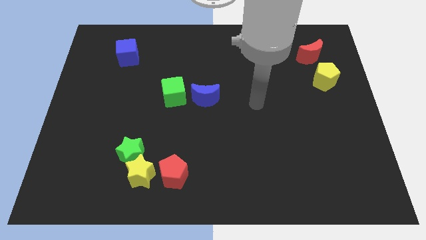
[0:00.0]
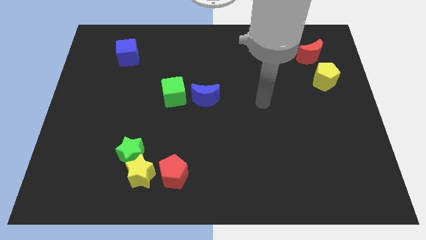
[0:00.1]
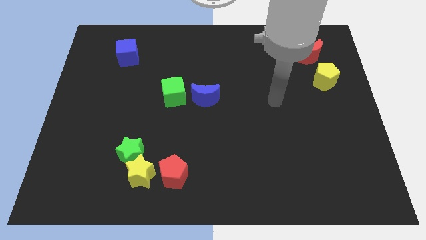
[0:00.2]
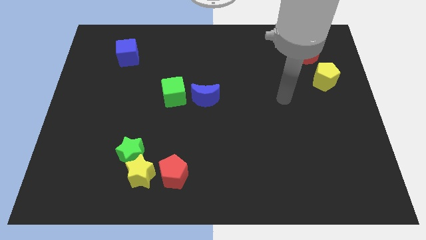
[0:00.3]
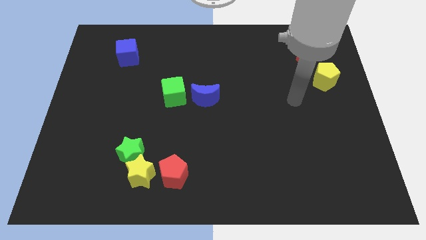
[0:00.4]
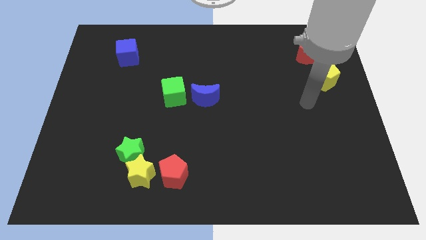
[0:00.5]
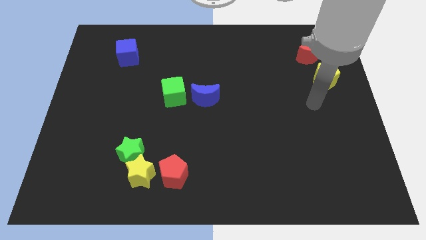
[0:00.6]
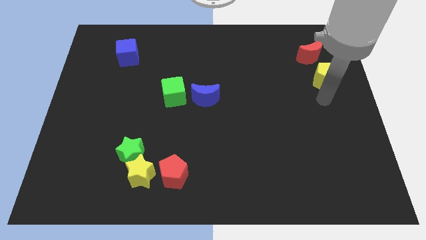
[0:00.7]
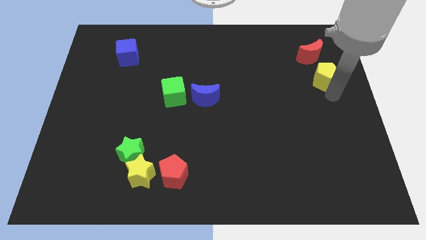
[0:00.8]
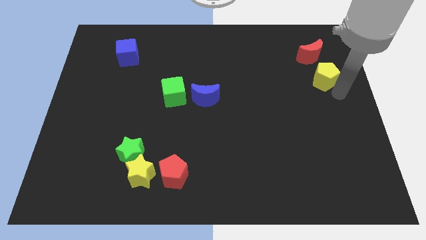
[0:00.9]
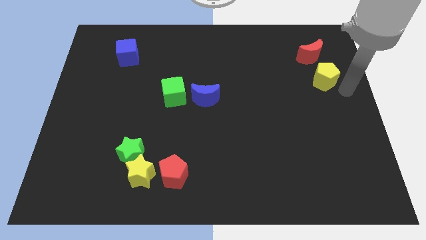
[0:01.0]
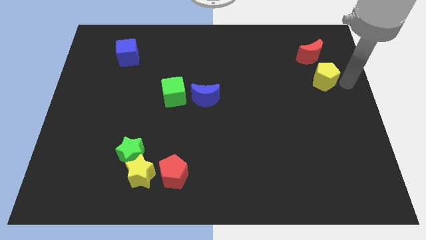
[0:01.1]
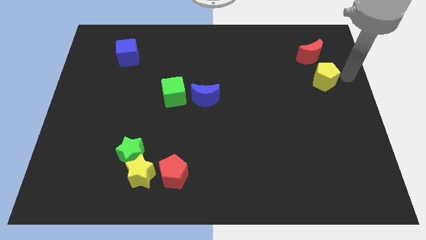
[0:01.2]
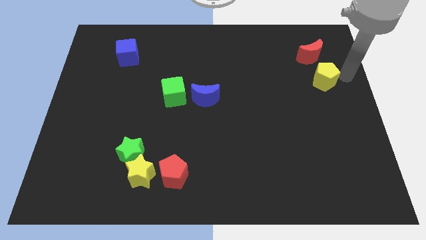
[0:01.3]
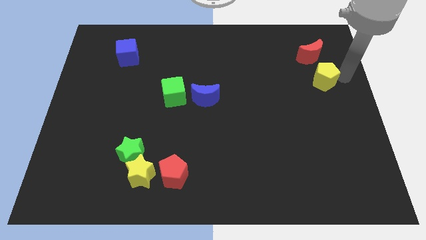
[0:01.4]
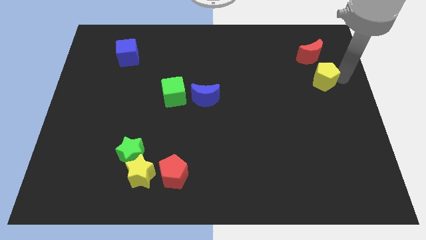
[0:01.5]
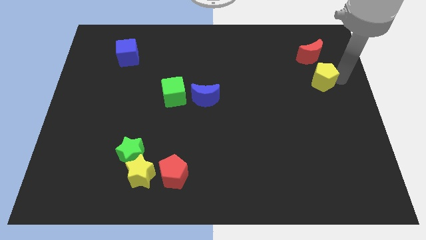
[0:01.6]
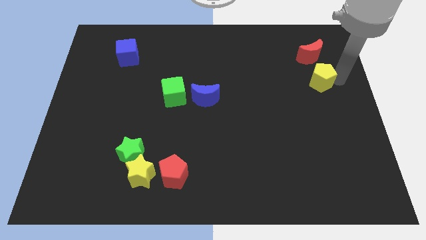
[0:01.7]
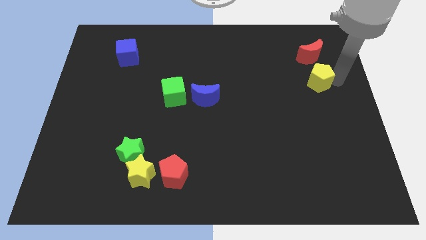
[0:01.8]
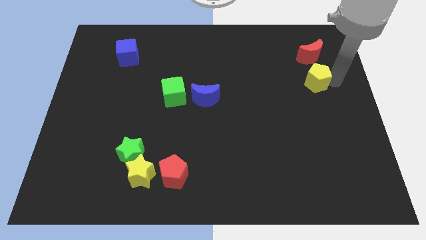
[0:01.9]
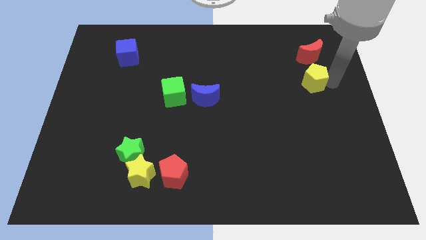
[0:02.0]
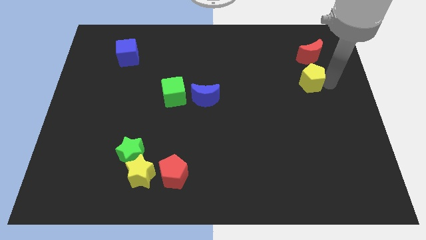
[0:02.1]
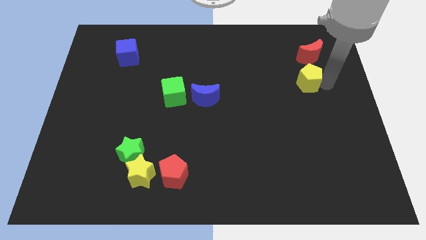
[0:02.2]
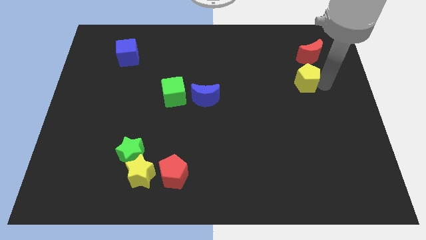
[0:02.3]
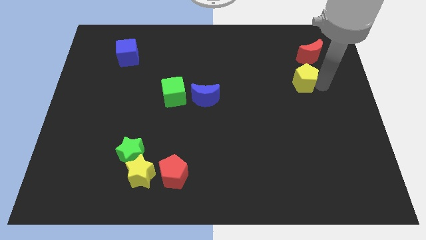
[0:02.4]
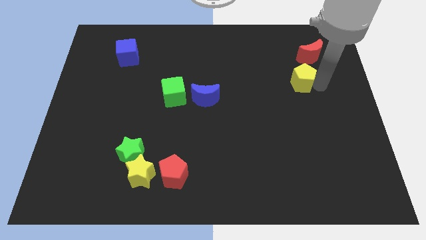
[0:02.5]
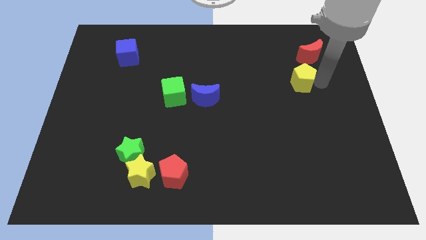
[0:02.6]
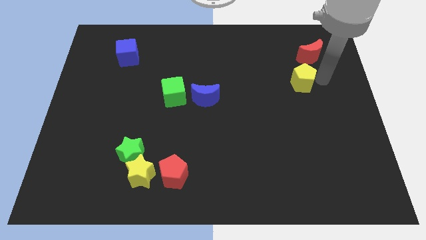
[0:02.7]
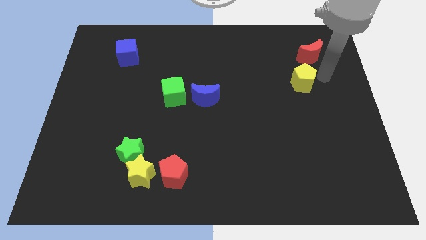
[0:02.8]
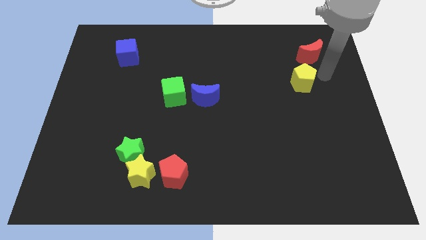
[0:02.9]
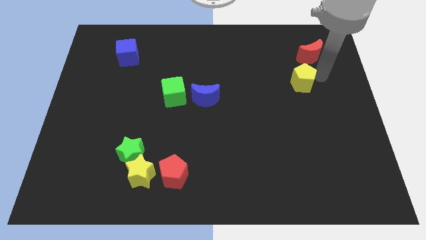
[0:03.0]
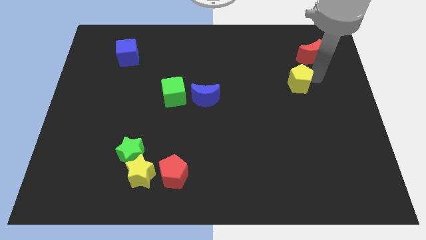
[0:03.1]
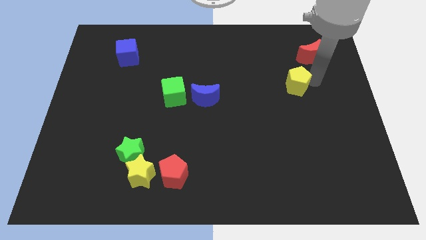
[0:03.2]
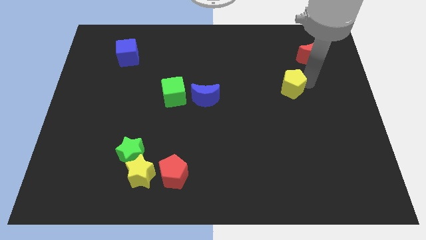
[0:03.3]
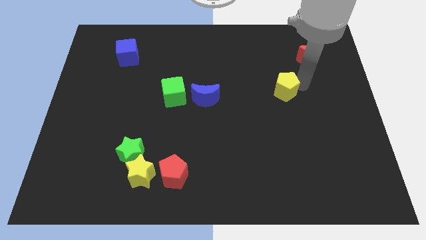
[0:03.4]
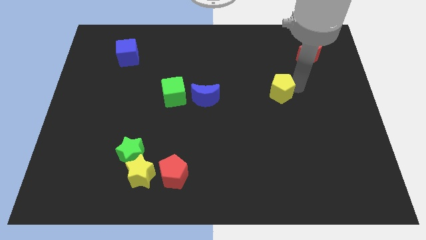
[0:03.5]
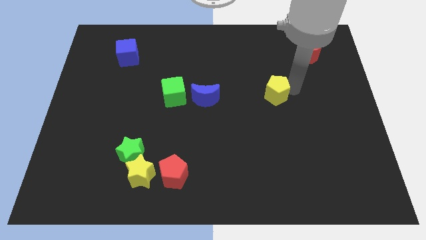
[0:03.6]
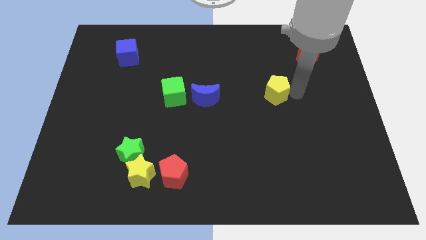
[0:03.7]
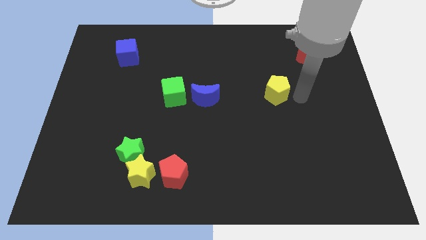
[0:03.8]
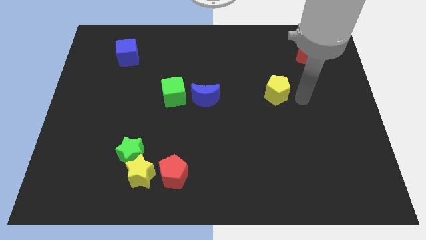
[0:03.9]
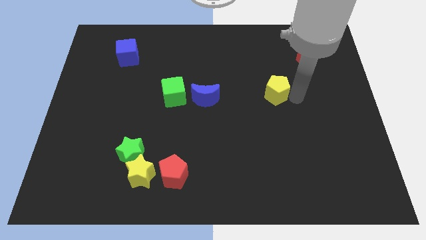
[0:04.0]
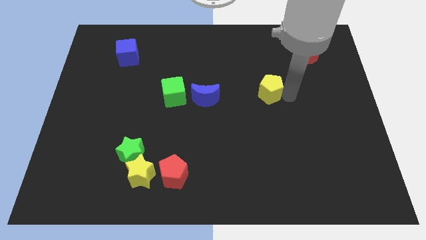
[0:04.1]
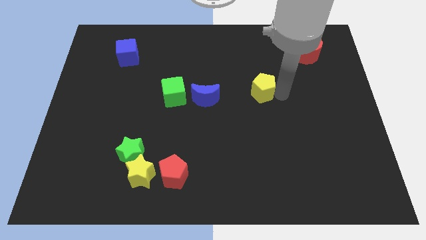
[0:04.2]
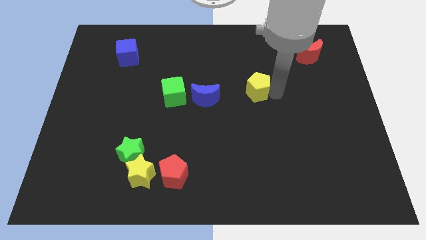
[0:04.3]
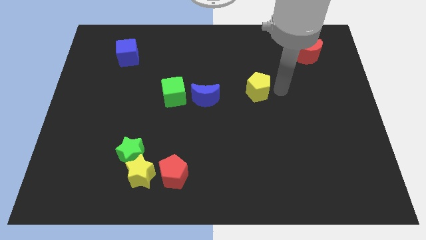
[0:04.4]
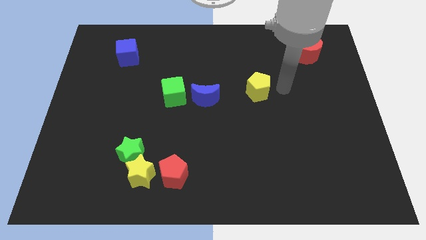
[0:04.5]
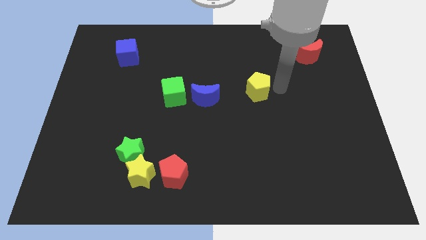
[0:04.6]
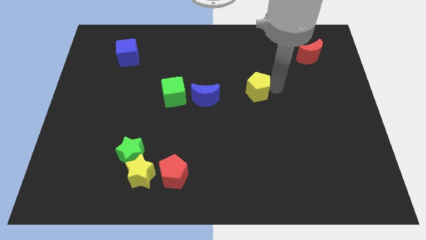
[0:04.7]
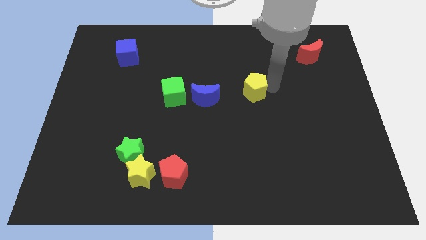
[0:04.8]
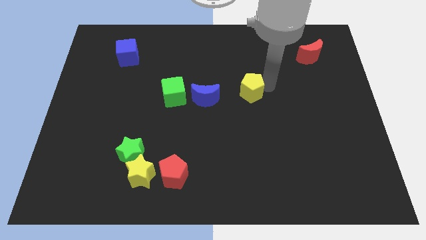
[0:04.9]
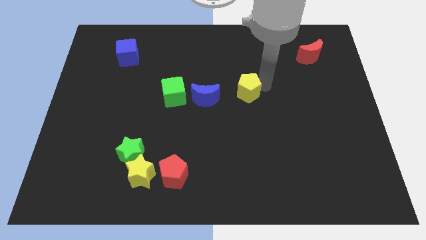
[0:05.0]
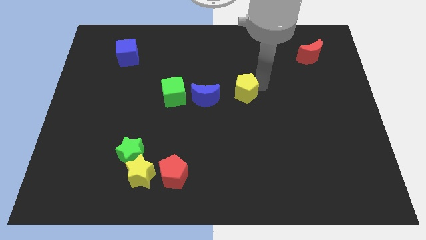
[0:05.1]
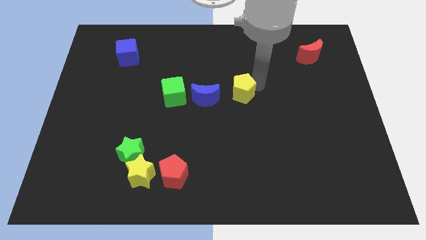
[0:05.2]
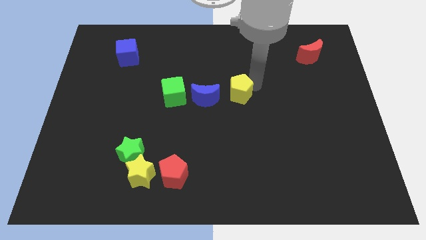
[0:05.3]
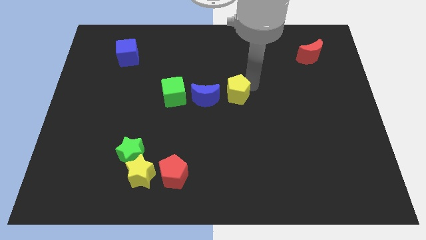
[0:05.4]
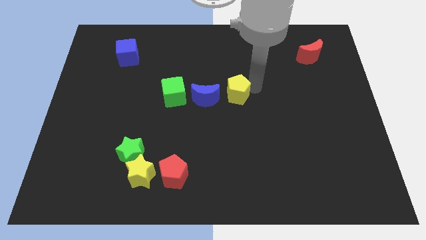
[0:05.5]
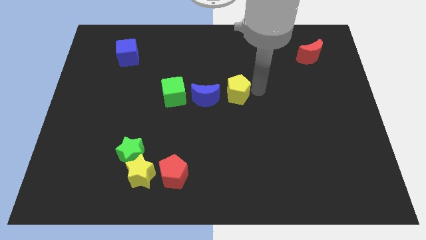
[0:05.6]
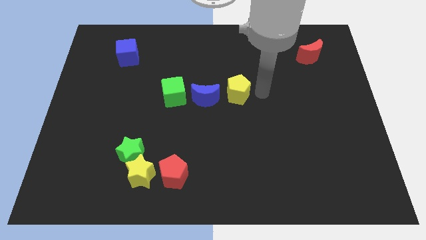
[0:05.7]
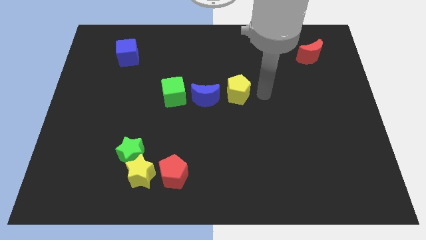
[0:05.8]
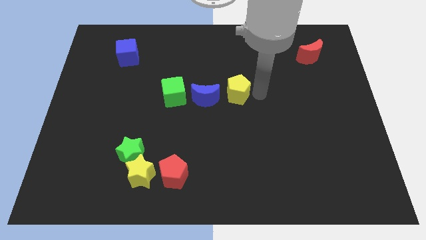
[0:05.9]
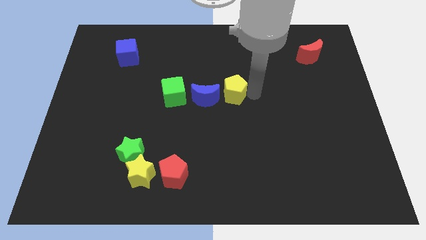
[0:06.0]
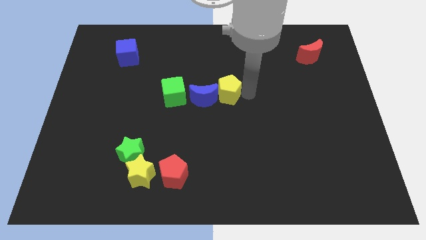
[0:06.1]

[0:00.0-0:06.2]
push the yellow pentagon to the blue moon

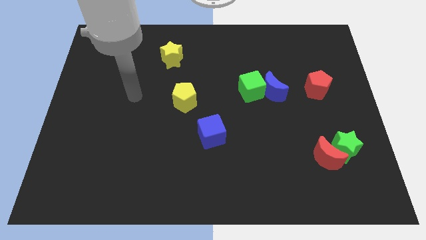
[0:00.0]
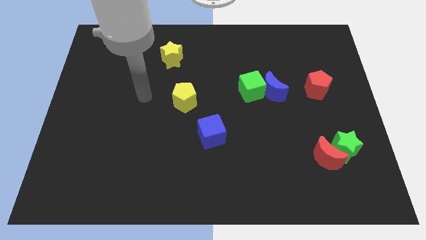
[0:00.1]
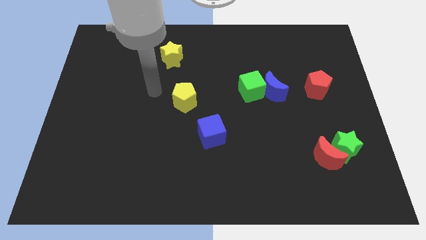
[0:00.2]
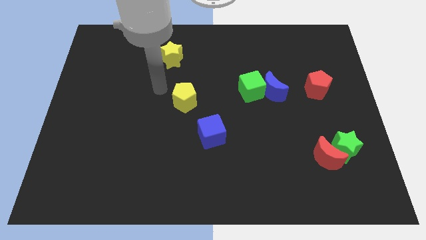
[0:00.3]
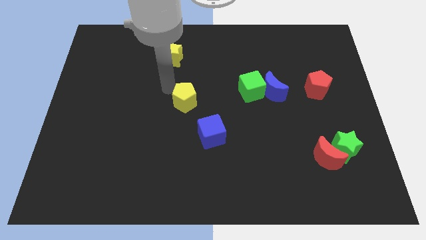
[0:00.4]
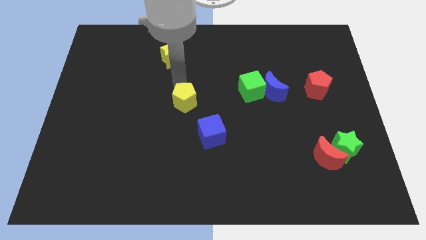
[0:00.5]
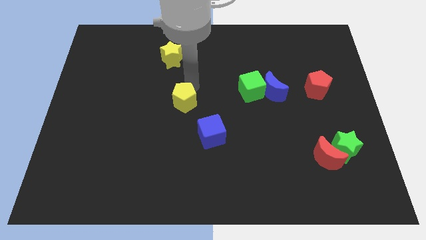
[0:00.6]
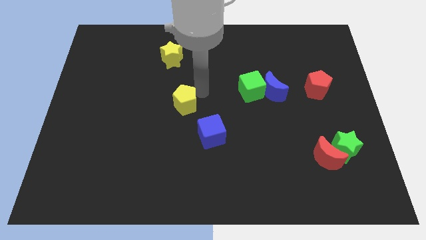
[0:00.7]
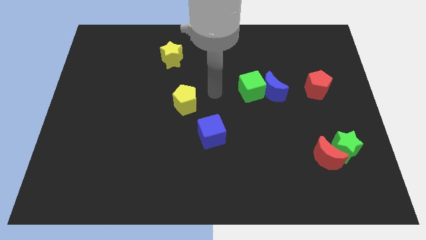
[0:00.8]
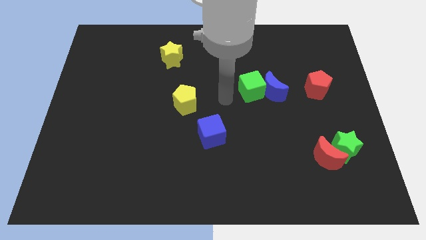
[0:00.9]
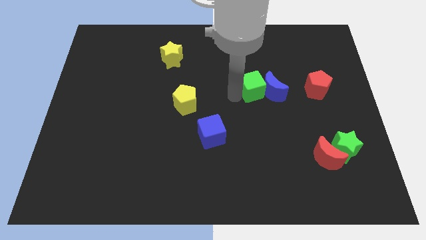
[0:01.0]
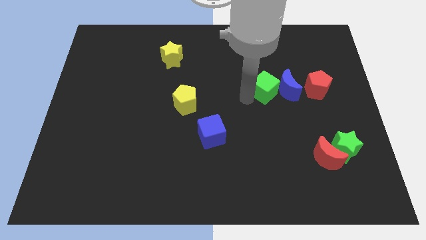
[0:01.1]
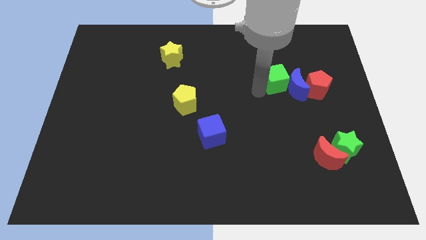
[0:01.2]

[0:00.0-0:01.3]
move the blue moon to the red pentagon
